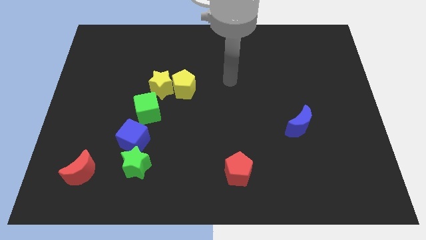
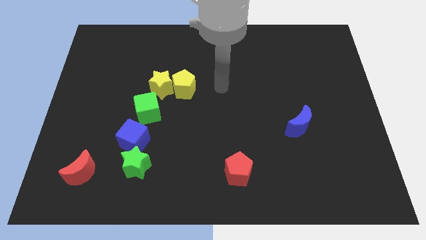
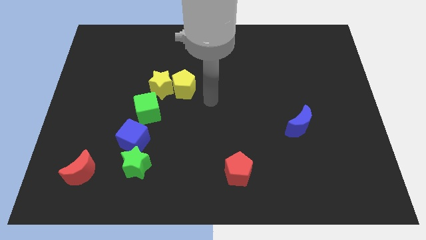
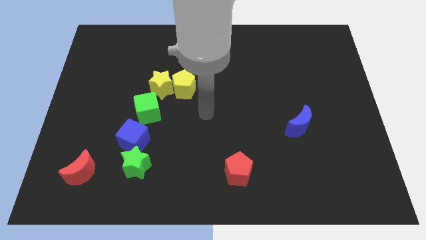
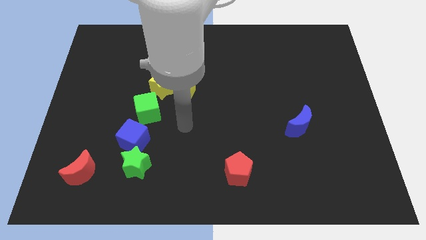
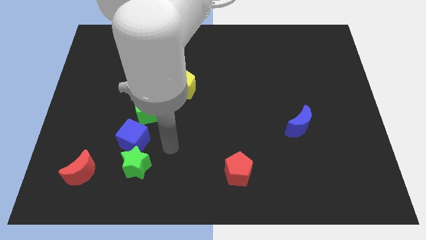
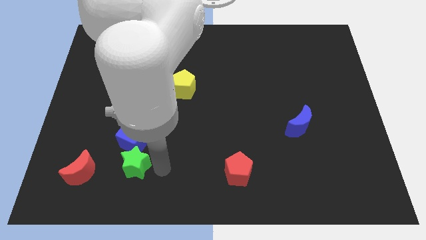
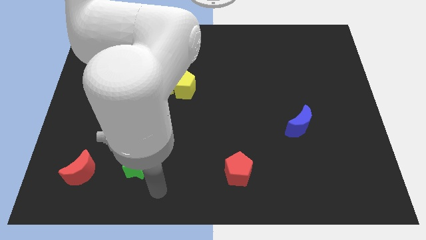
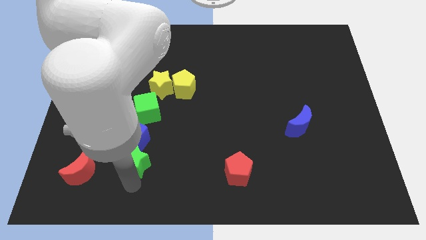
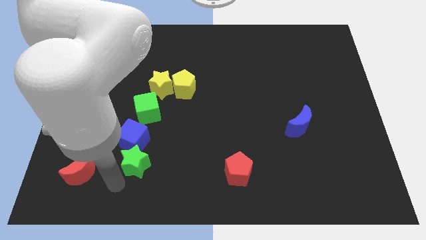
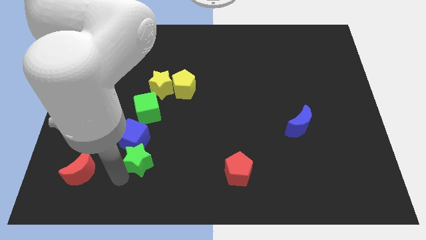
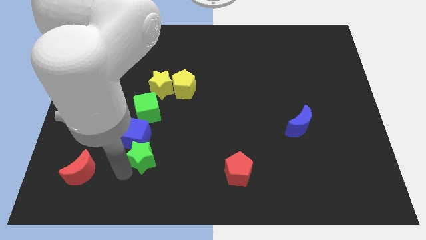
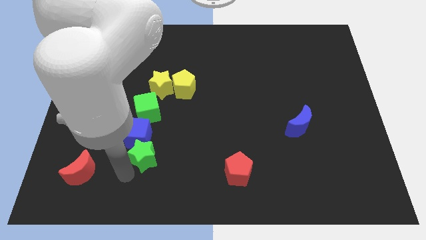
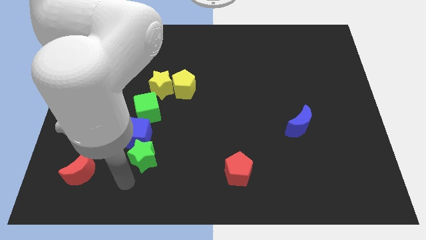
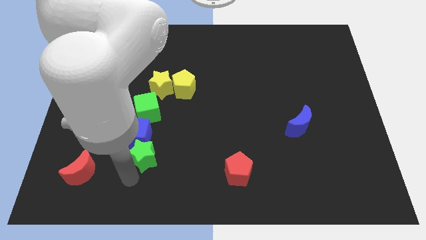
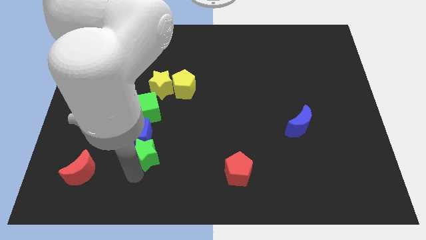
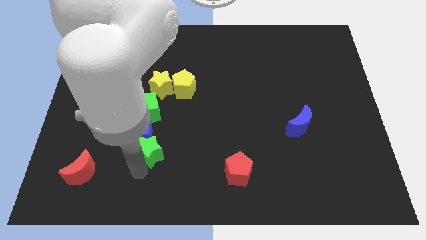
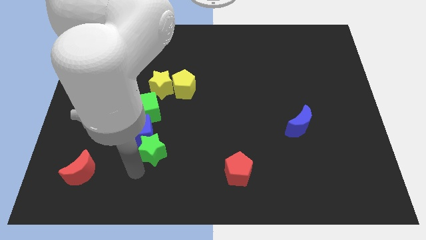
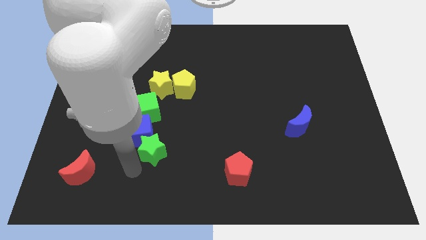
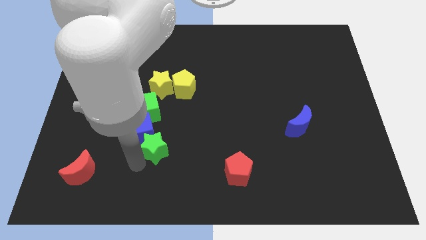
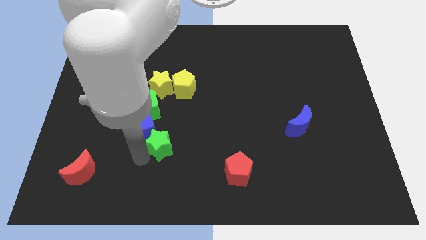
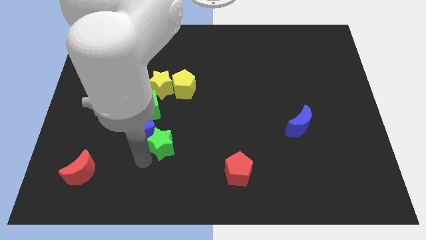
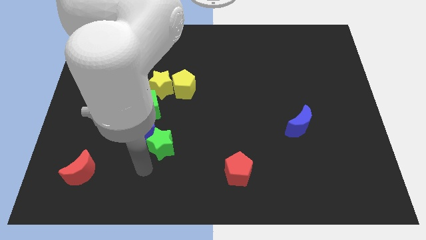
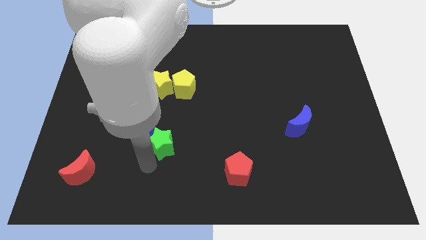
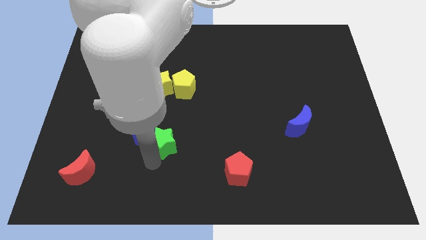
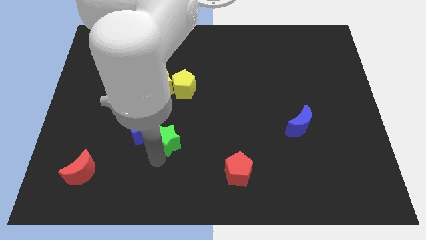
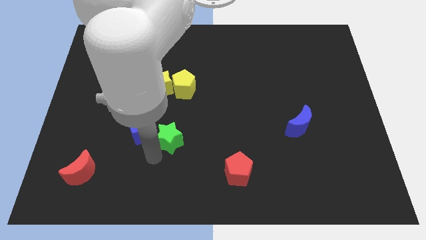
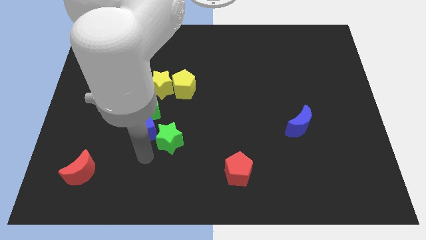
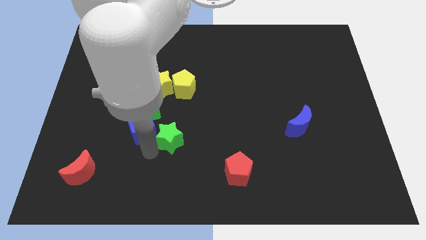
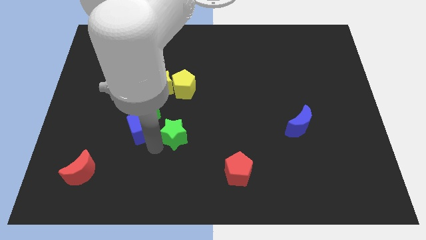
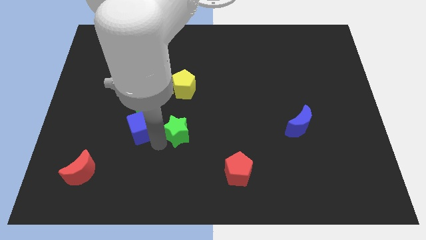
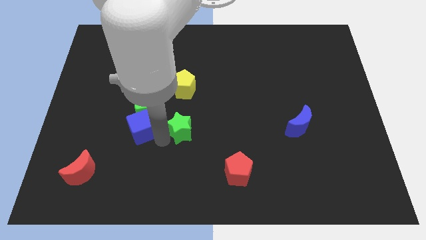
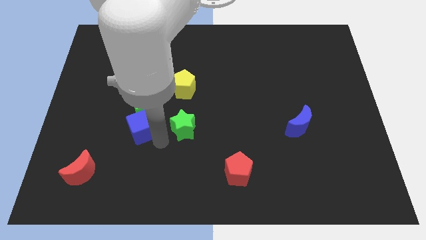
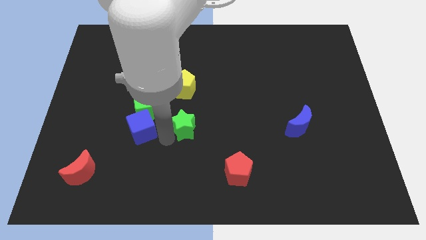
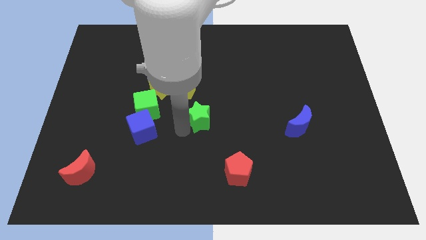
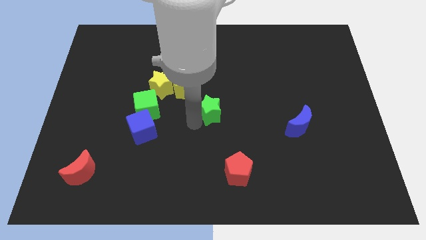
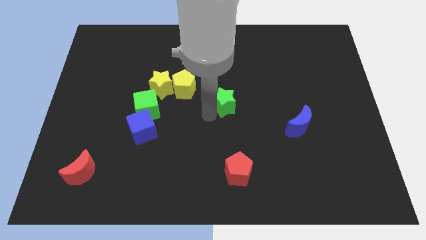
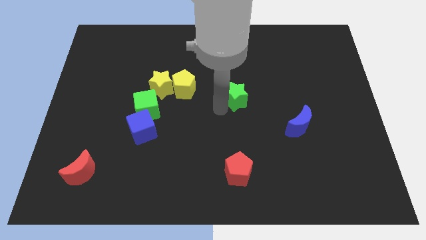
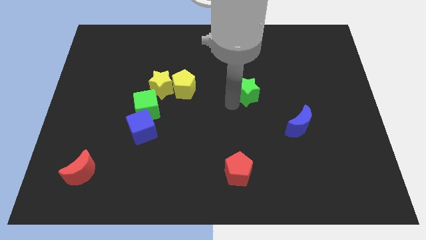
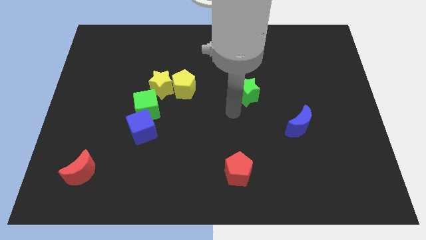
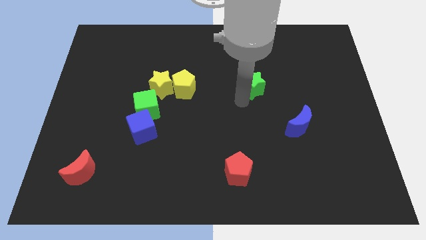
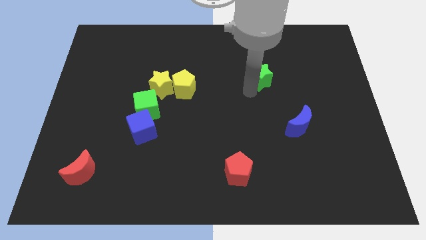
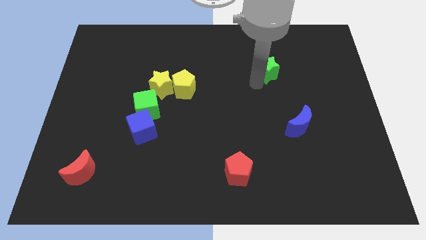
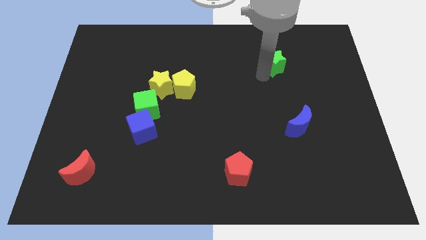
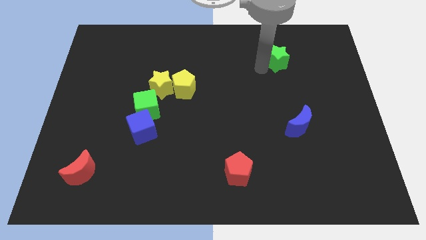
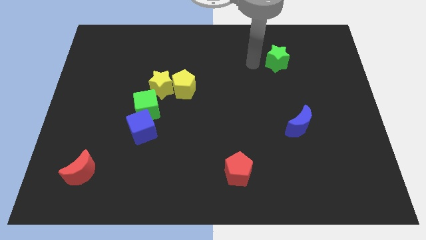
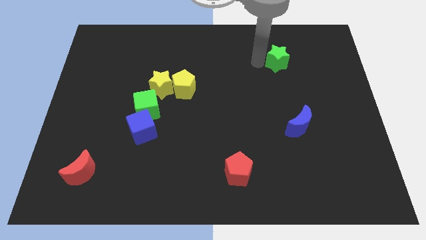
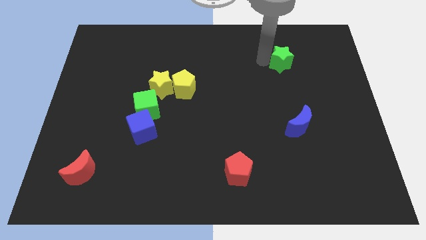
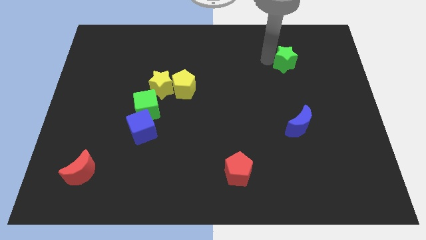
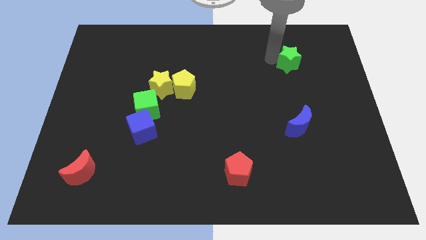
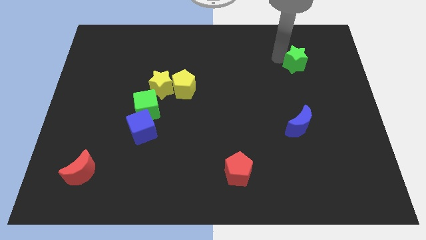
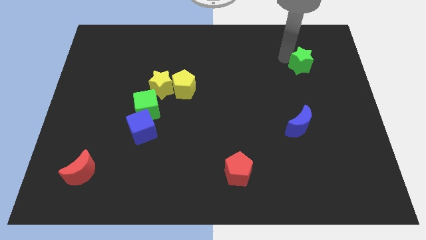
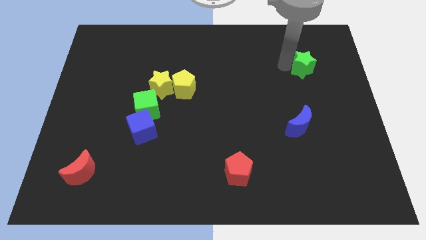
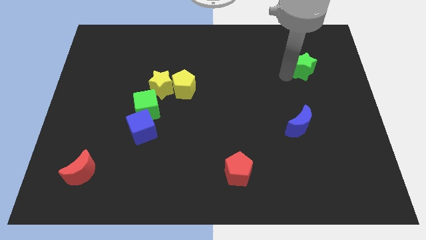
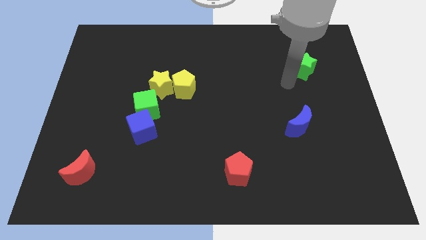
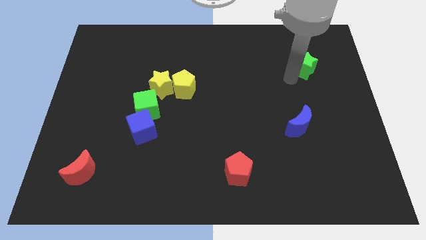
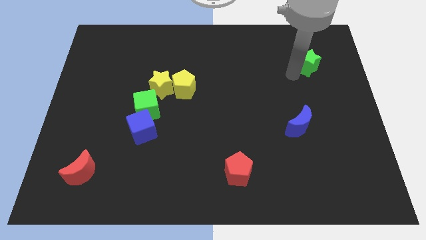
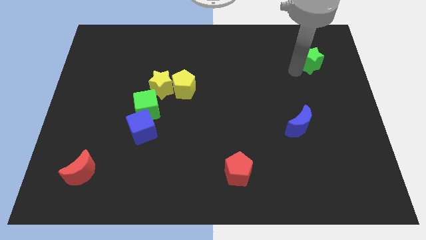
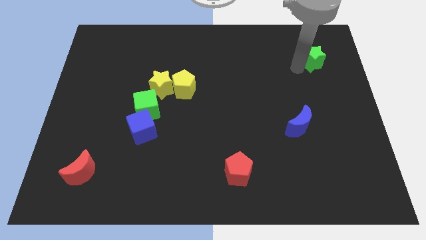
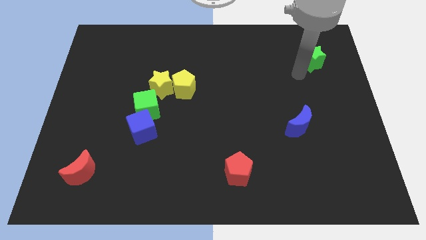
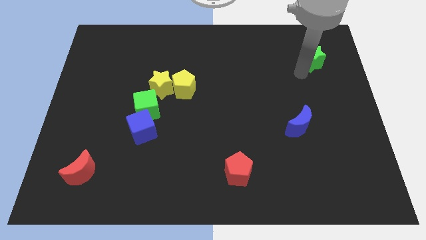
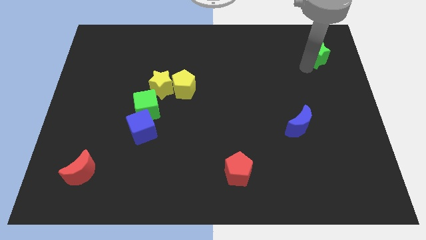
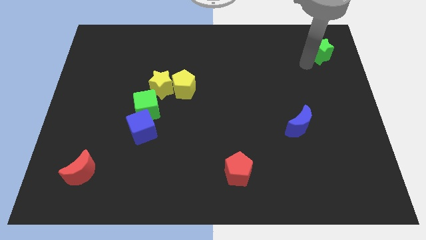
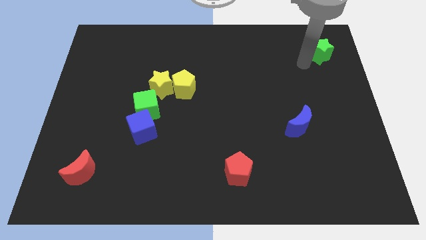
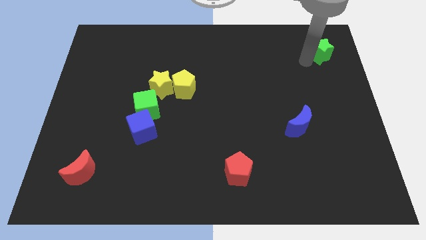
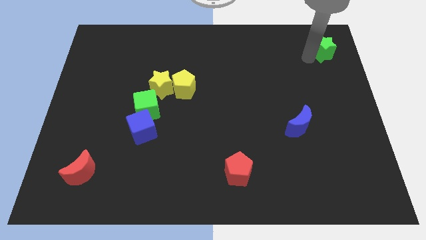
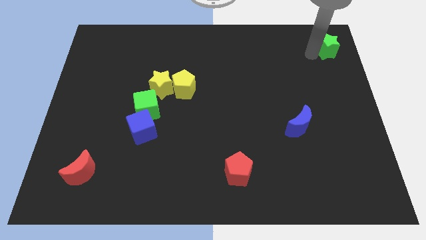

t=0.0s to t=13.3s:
move the green star to the upper right corner
